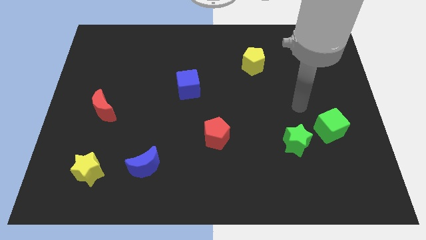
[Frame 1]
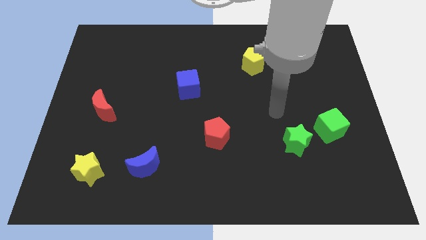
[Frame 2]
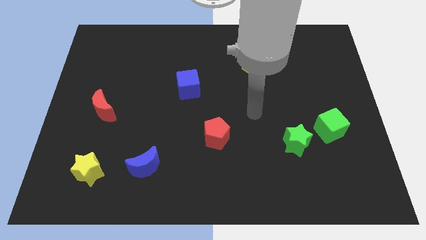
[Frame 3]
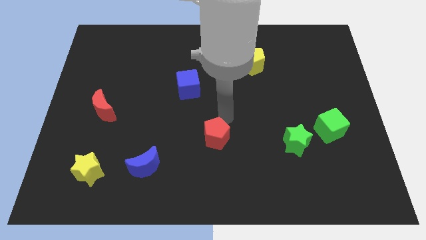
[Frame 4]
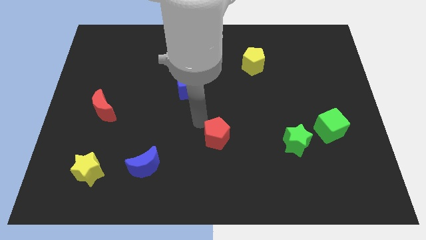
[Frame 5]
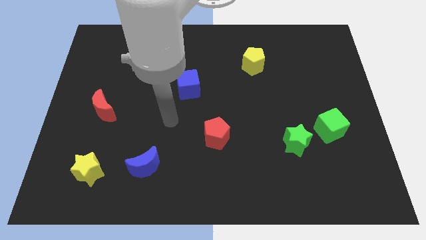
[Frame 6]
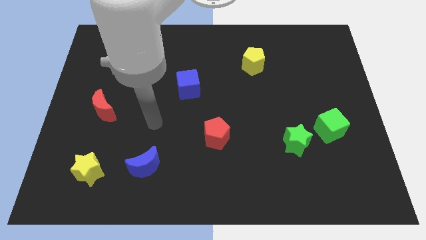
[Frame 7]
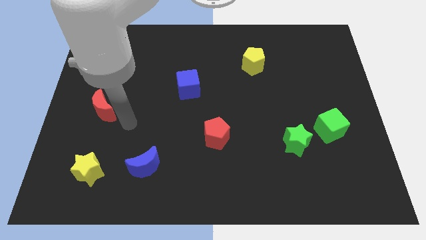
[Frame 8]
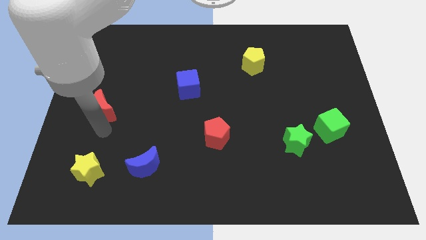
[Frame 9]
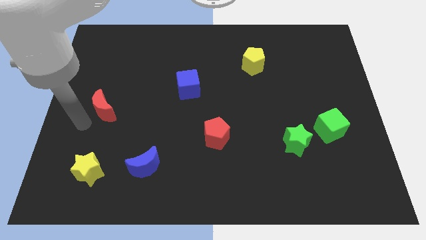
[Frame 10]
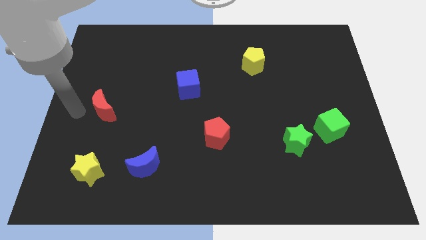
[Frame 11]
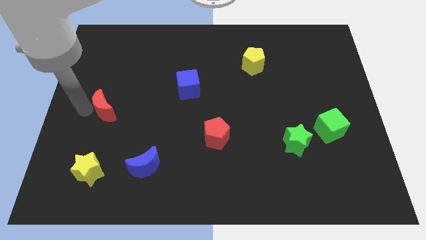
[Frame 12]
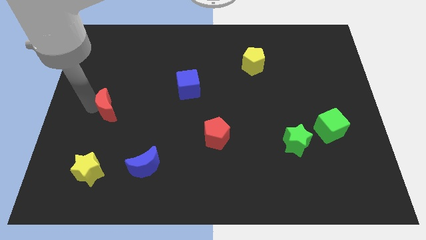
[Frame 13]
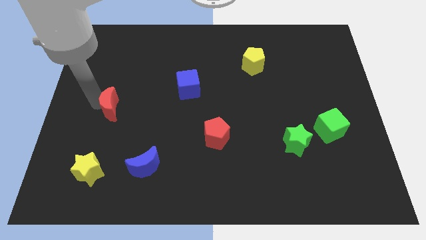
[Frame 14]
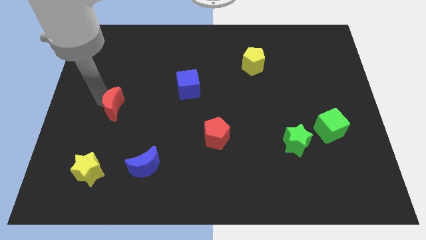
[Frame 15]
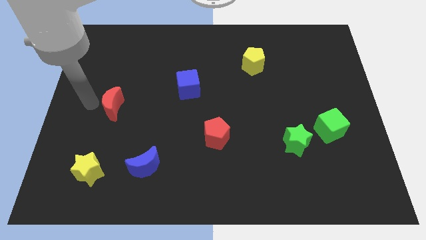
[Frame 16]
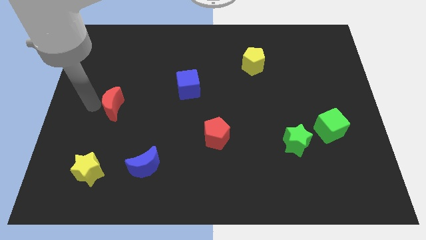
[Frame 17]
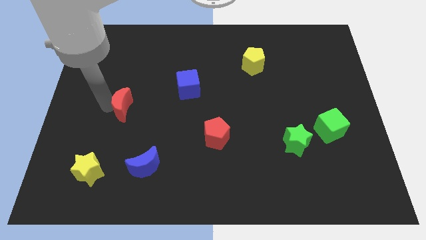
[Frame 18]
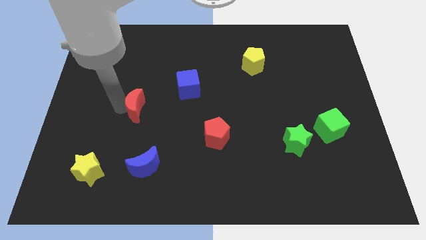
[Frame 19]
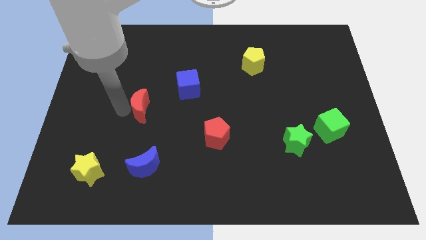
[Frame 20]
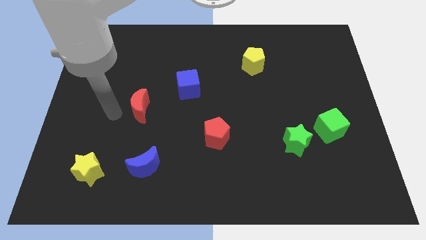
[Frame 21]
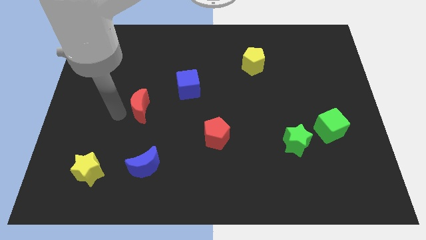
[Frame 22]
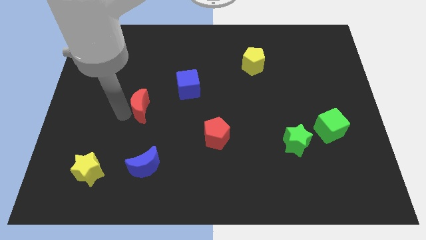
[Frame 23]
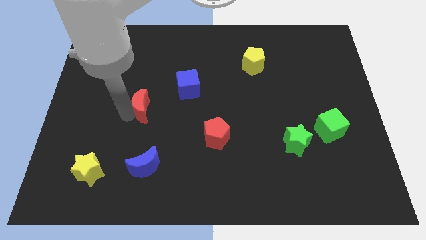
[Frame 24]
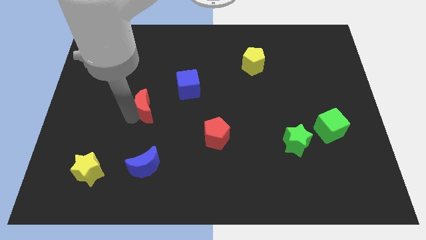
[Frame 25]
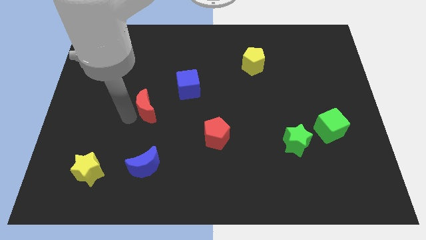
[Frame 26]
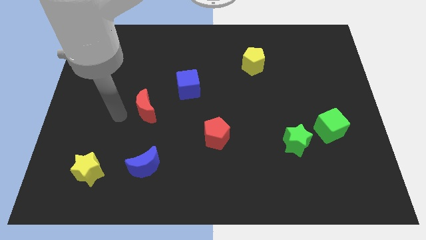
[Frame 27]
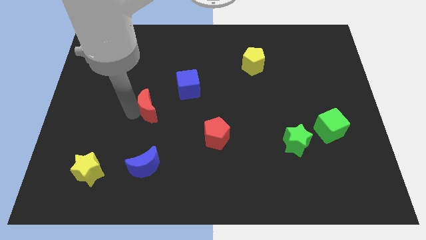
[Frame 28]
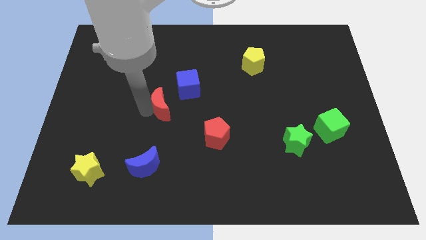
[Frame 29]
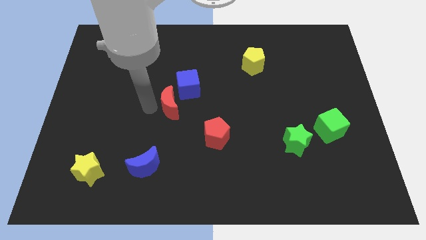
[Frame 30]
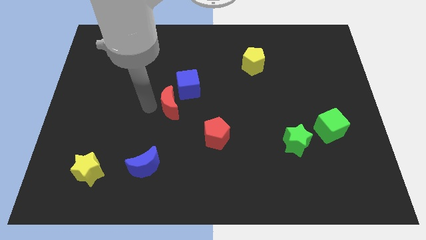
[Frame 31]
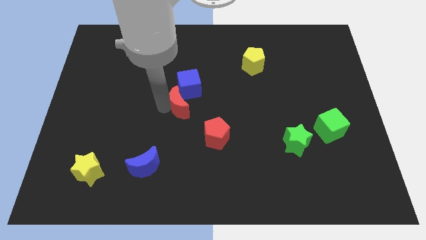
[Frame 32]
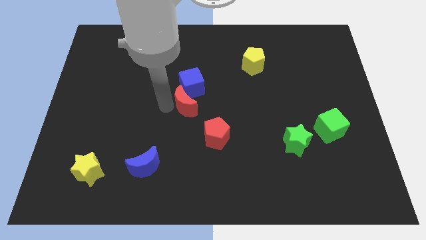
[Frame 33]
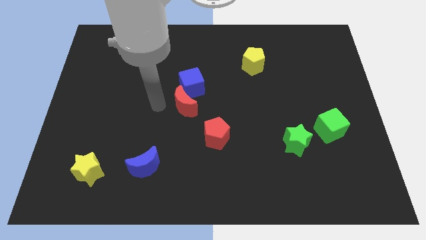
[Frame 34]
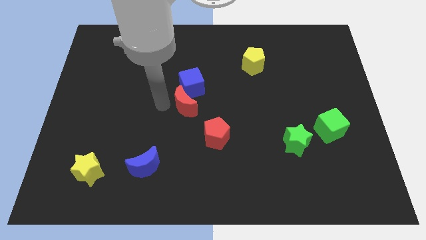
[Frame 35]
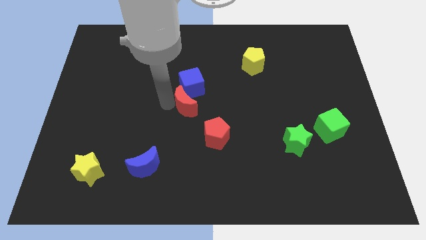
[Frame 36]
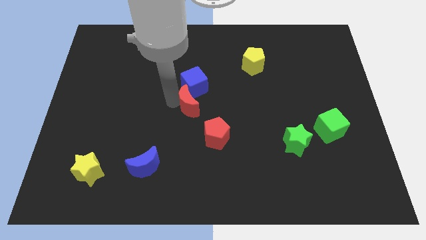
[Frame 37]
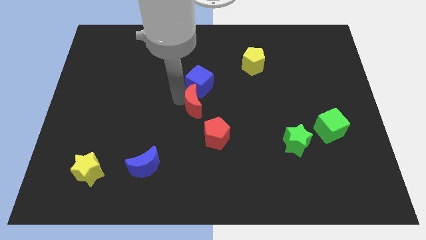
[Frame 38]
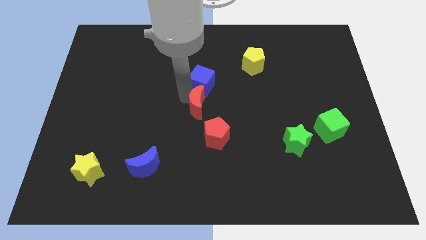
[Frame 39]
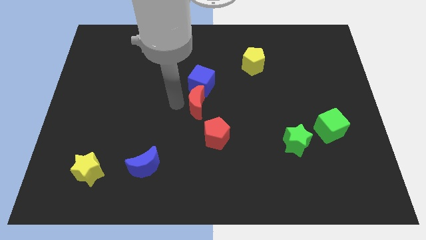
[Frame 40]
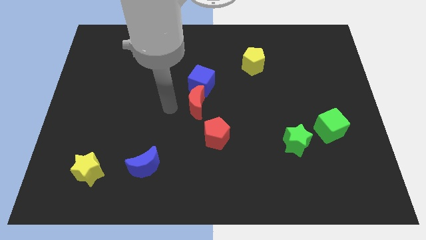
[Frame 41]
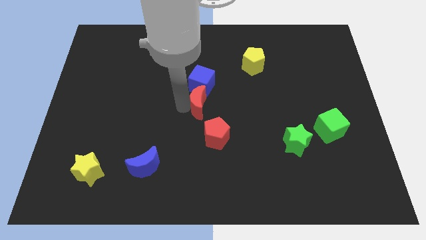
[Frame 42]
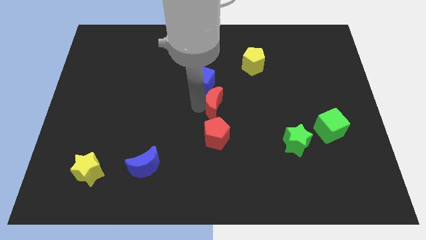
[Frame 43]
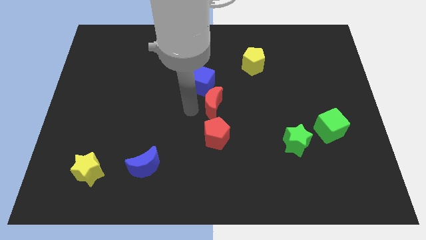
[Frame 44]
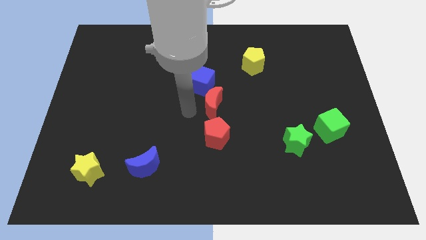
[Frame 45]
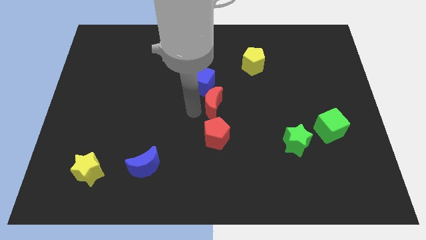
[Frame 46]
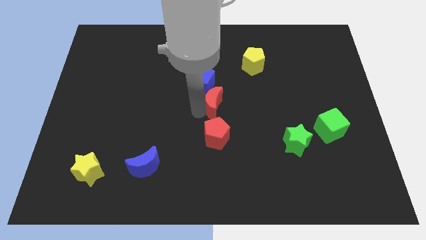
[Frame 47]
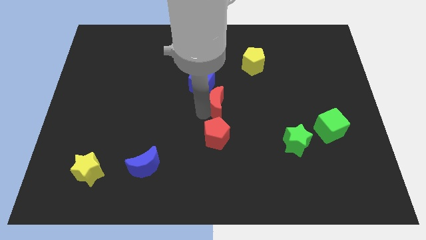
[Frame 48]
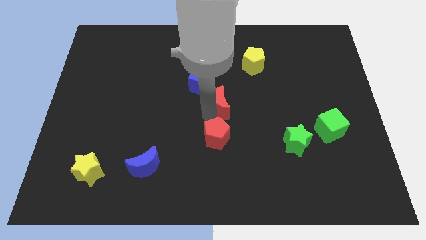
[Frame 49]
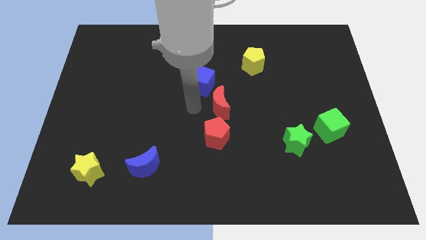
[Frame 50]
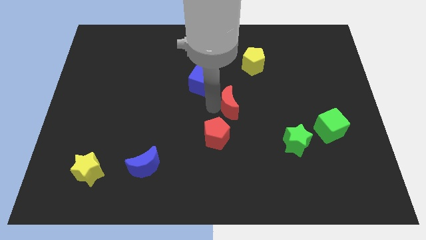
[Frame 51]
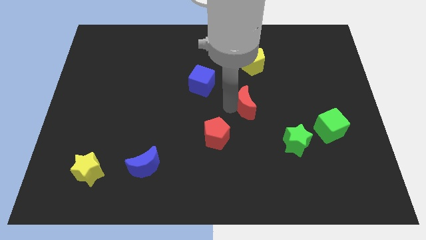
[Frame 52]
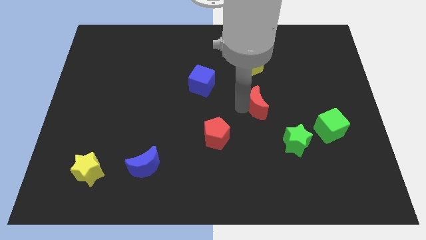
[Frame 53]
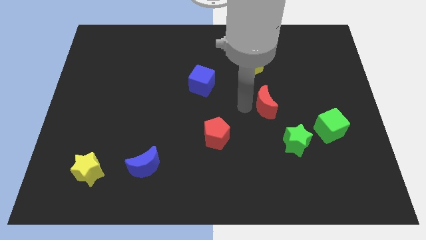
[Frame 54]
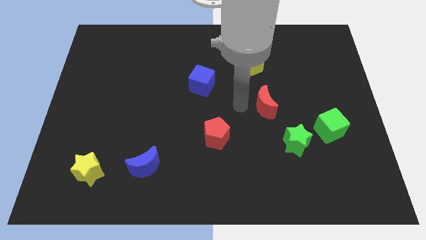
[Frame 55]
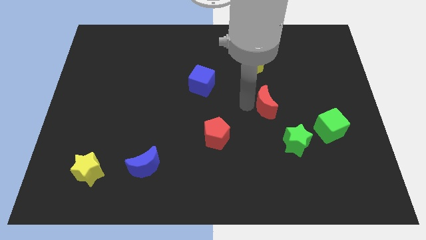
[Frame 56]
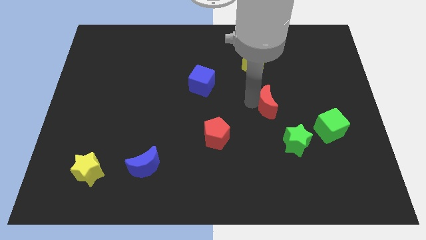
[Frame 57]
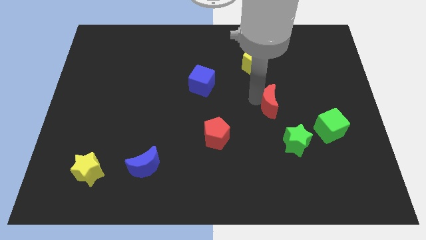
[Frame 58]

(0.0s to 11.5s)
slide the red moon to the top of the green star

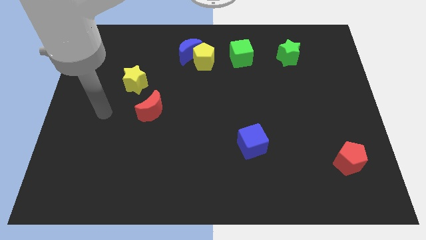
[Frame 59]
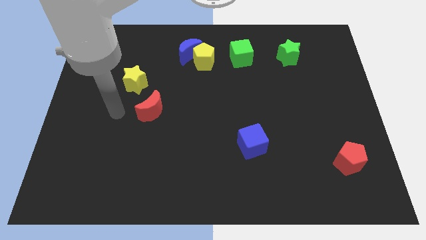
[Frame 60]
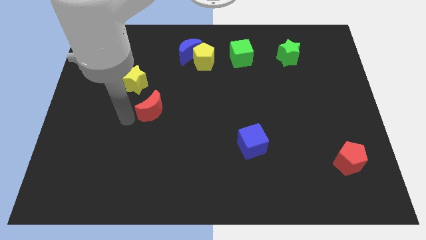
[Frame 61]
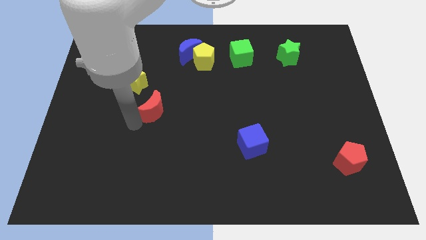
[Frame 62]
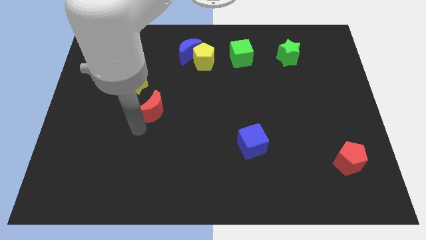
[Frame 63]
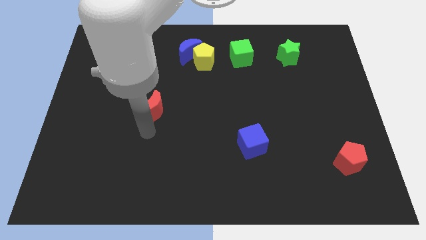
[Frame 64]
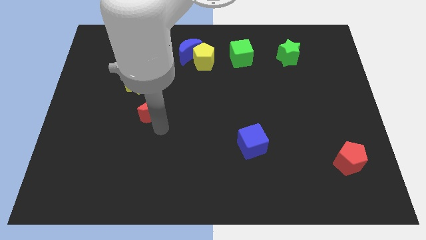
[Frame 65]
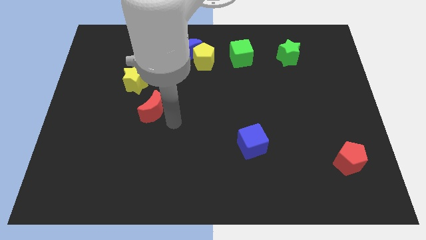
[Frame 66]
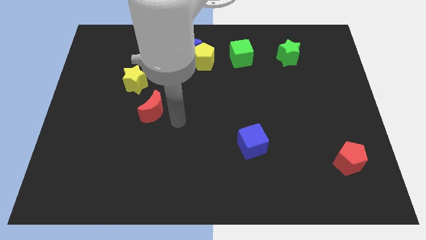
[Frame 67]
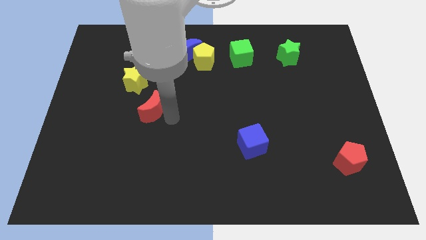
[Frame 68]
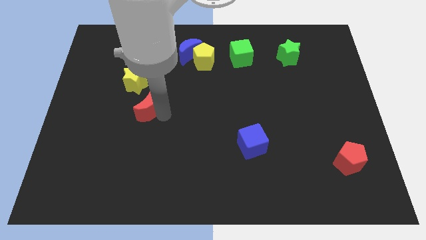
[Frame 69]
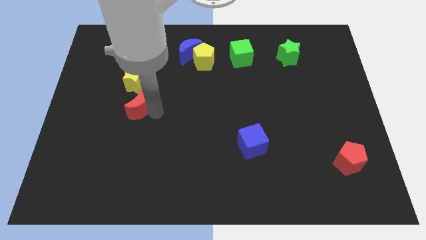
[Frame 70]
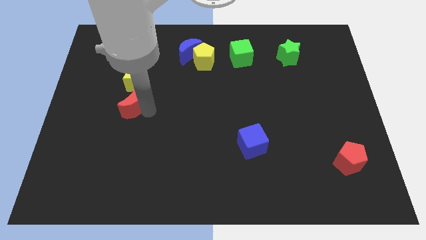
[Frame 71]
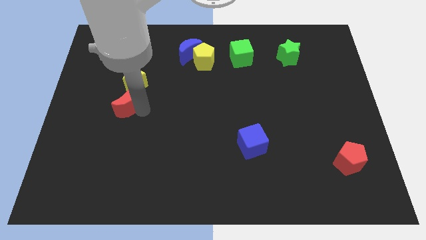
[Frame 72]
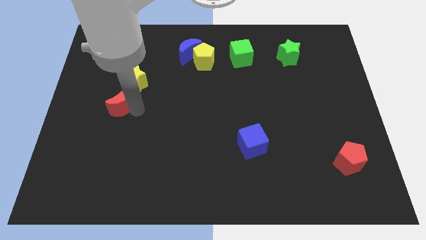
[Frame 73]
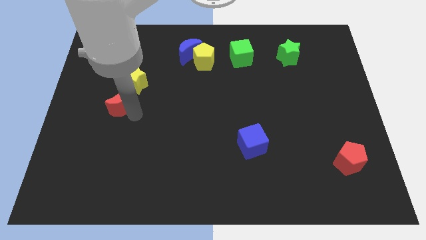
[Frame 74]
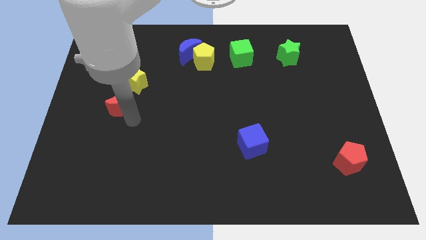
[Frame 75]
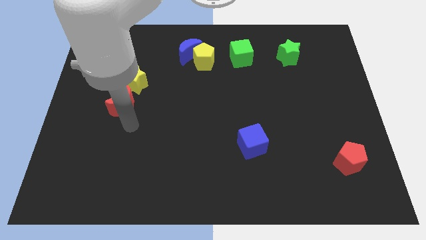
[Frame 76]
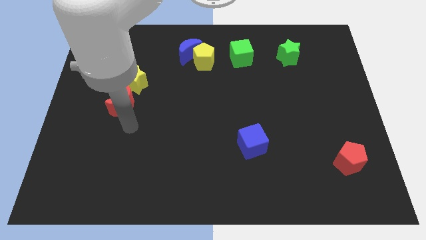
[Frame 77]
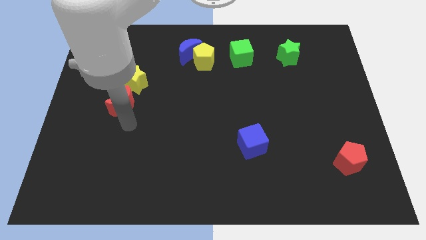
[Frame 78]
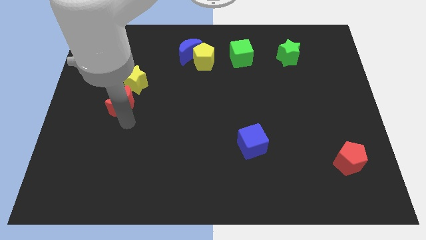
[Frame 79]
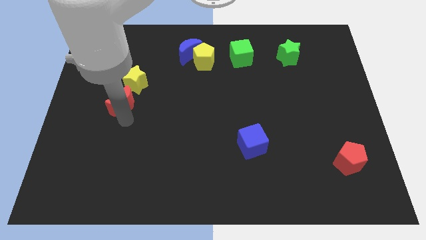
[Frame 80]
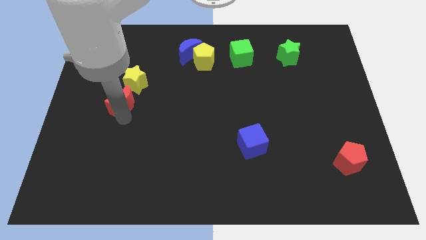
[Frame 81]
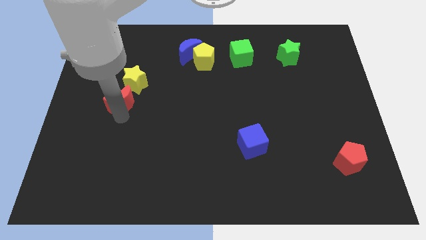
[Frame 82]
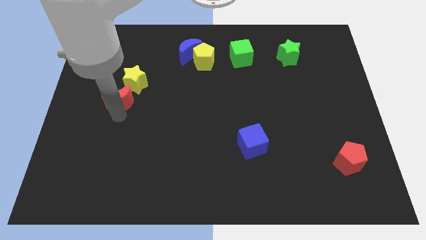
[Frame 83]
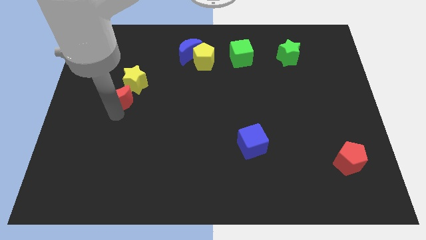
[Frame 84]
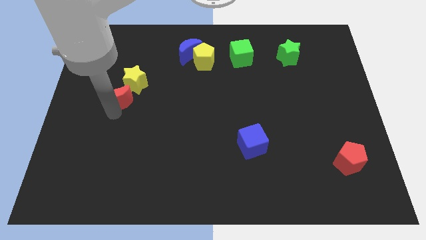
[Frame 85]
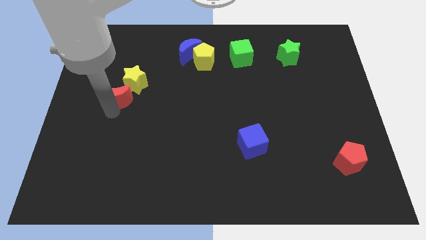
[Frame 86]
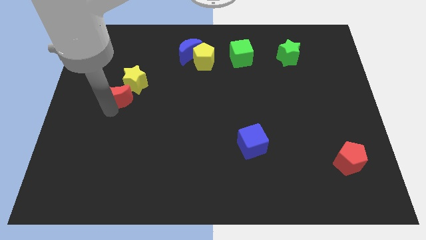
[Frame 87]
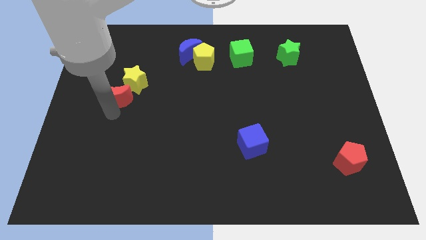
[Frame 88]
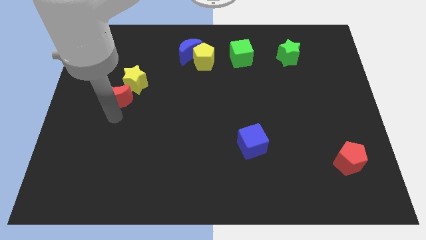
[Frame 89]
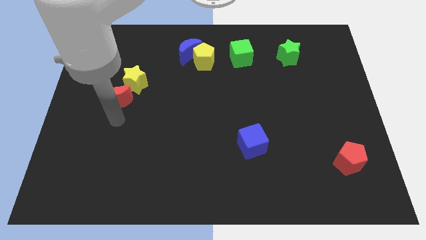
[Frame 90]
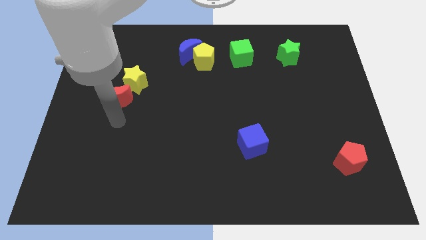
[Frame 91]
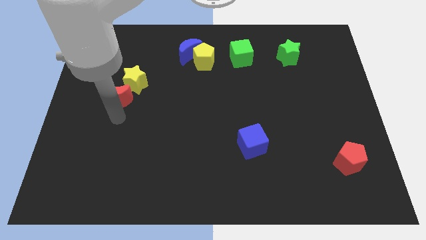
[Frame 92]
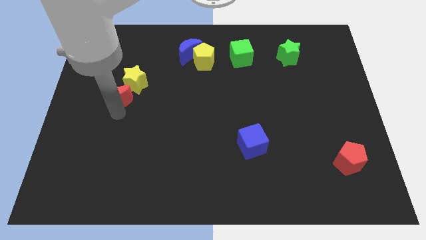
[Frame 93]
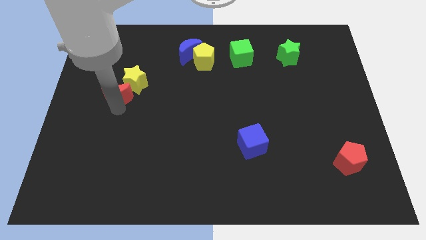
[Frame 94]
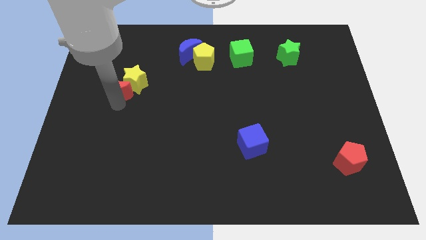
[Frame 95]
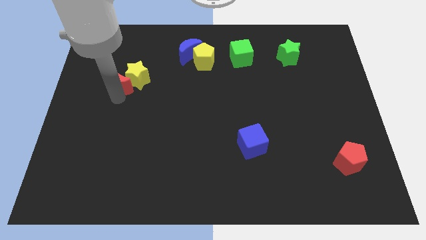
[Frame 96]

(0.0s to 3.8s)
push the red moon to the top left of the yellow star
